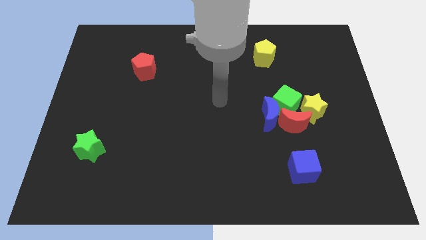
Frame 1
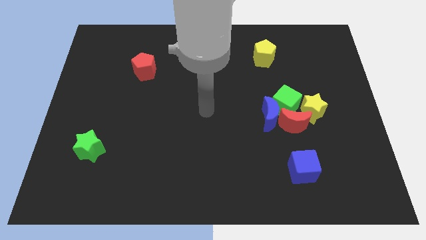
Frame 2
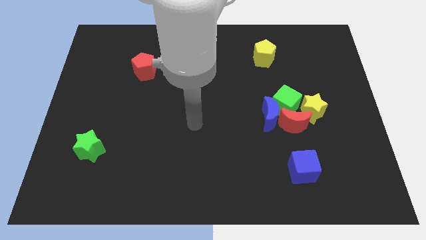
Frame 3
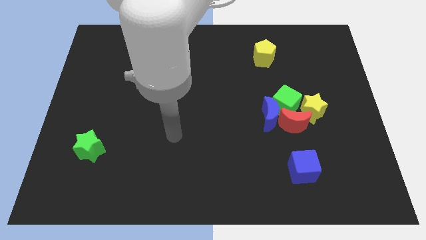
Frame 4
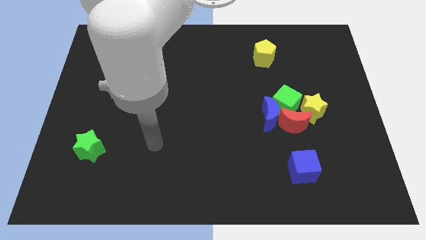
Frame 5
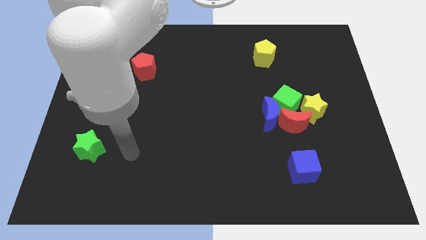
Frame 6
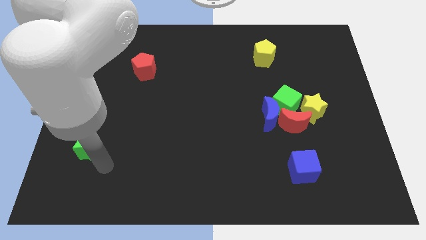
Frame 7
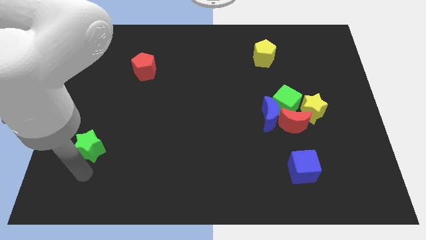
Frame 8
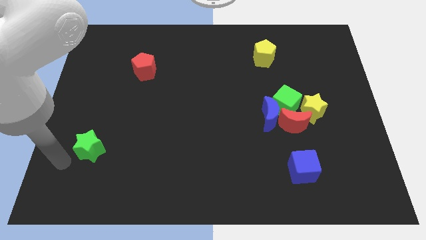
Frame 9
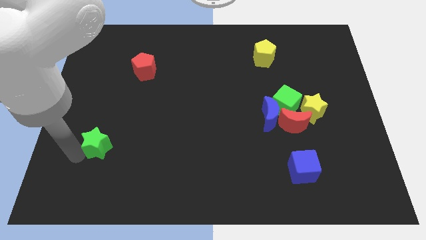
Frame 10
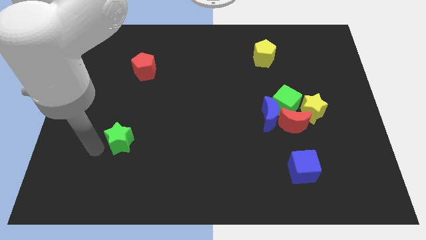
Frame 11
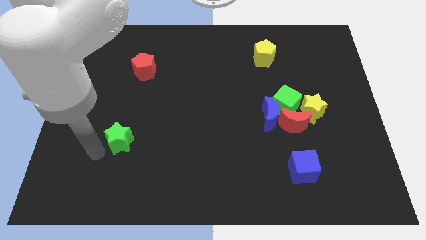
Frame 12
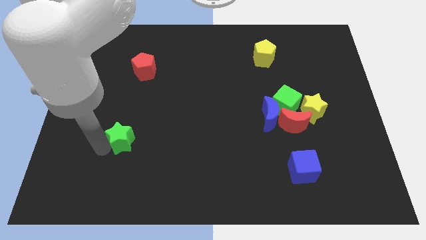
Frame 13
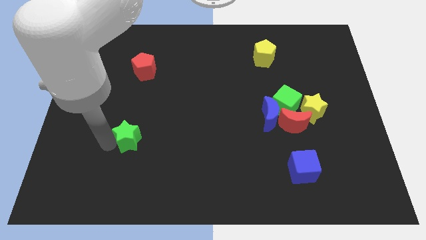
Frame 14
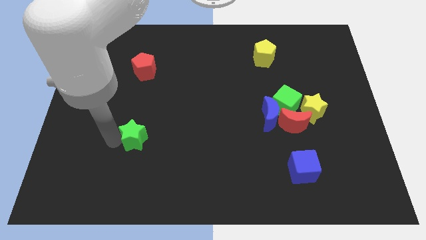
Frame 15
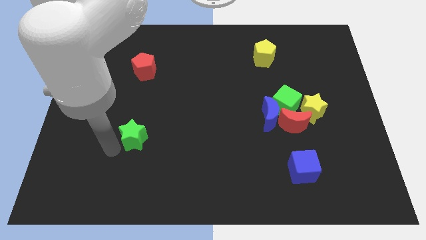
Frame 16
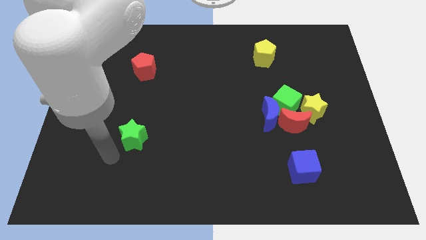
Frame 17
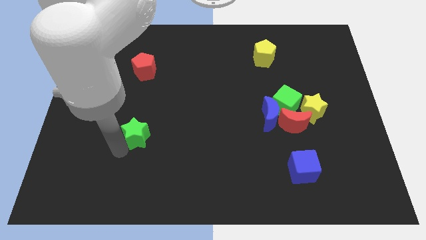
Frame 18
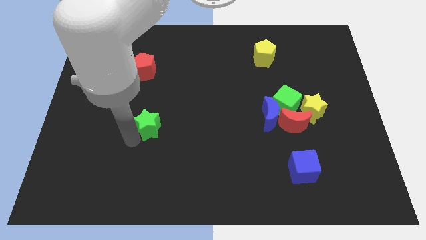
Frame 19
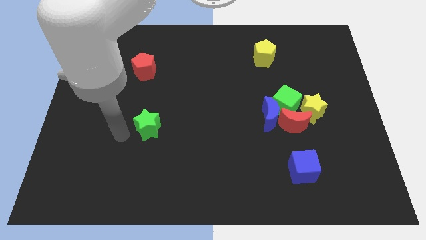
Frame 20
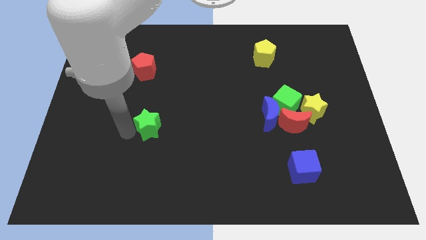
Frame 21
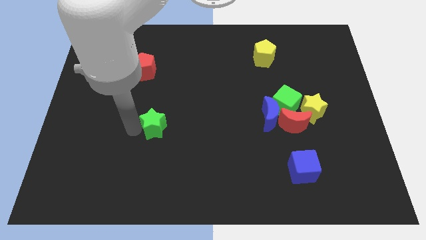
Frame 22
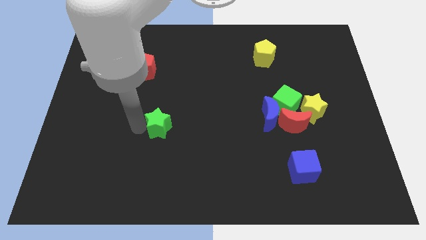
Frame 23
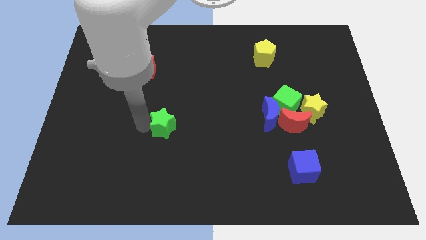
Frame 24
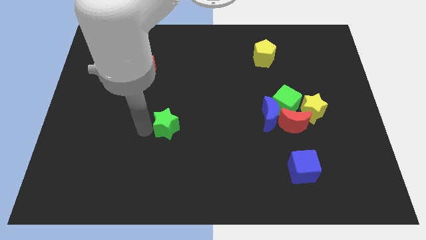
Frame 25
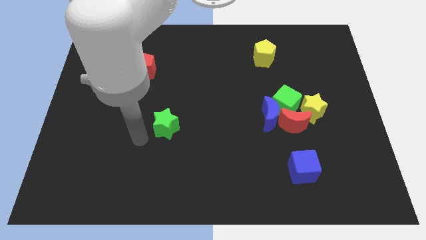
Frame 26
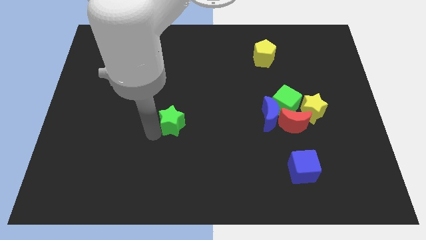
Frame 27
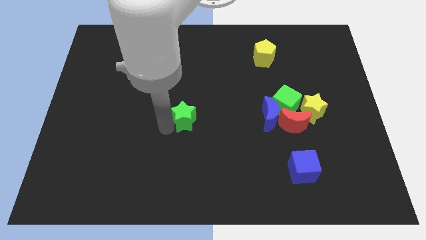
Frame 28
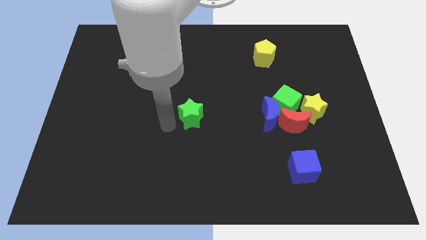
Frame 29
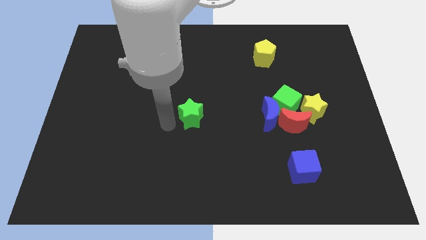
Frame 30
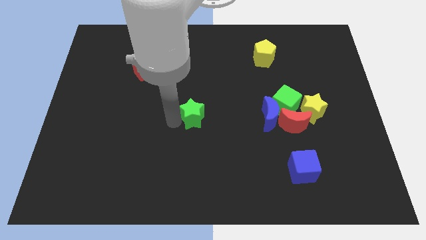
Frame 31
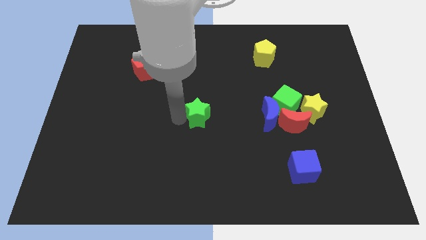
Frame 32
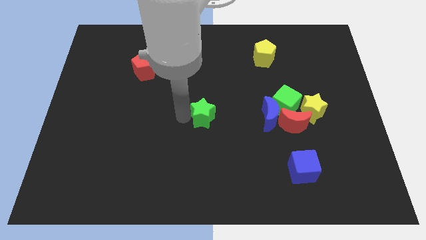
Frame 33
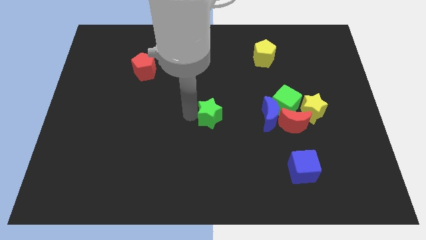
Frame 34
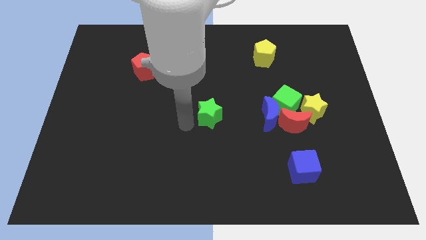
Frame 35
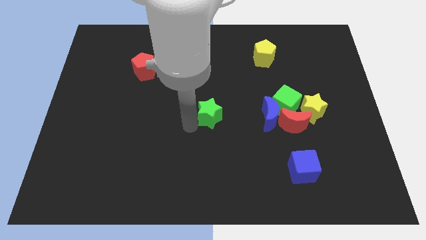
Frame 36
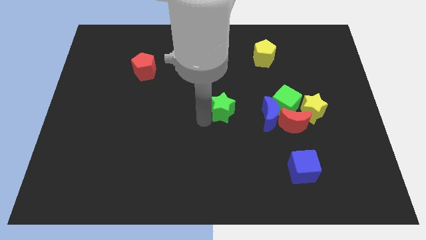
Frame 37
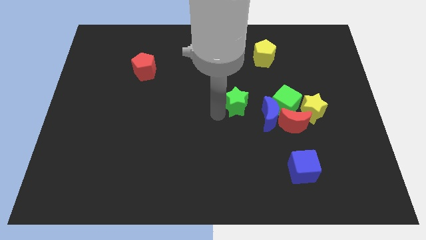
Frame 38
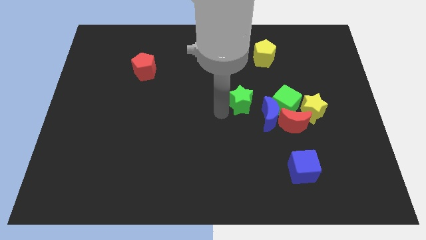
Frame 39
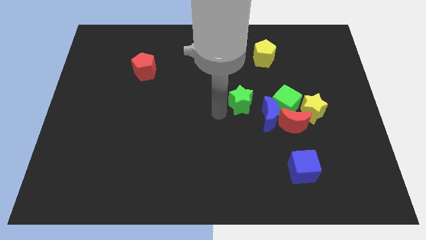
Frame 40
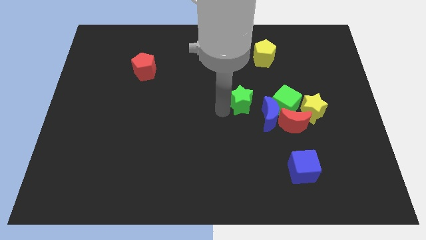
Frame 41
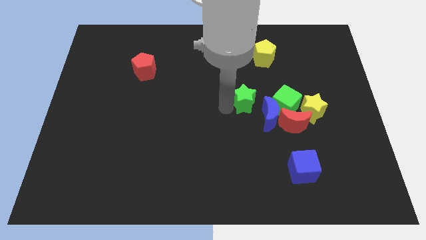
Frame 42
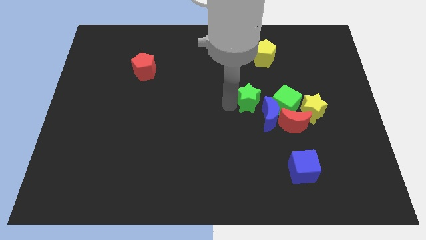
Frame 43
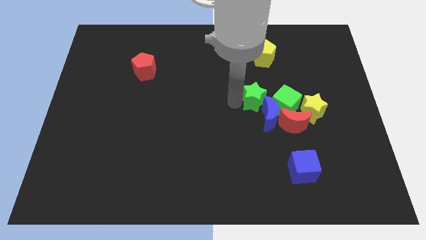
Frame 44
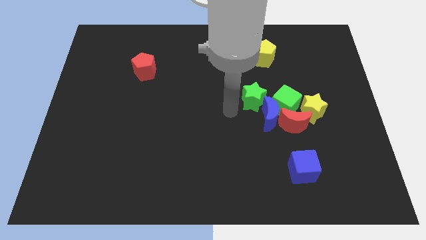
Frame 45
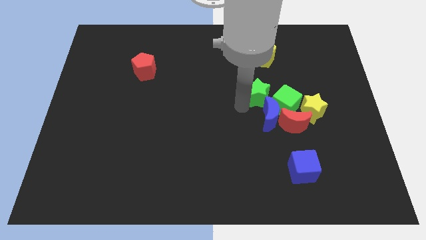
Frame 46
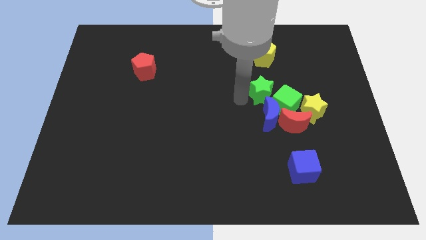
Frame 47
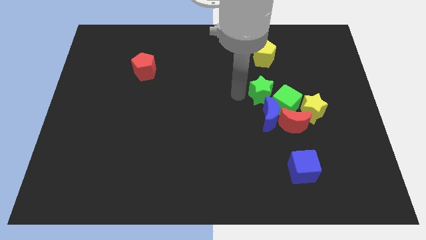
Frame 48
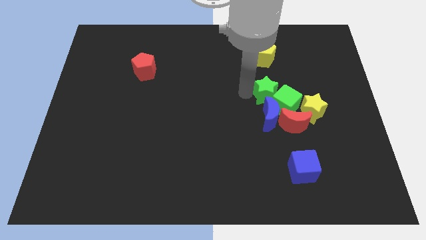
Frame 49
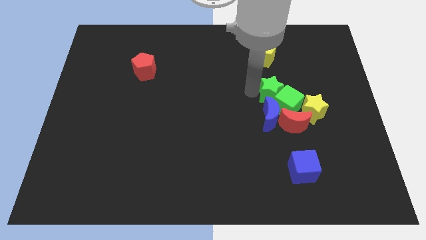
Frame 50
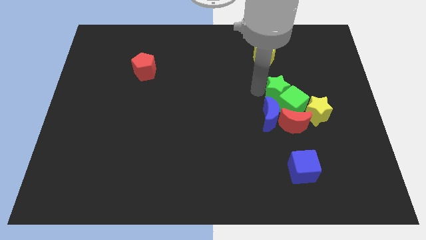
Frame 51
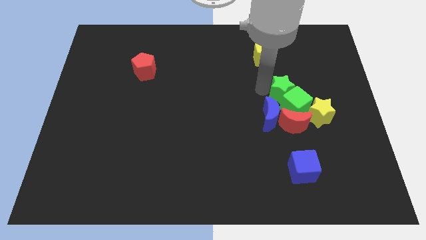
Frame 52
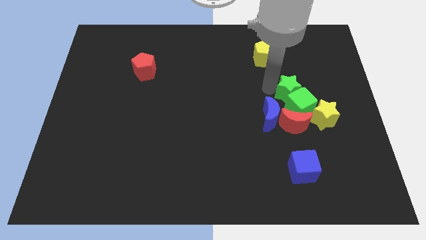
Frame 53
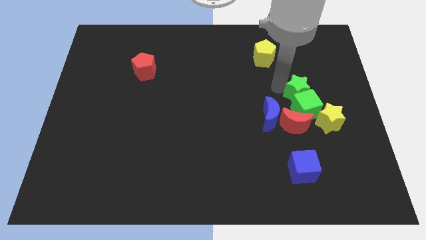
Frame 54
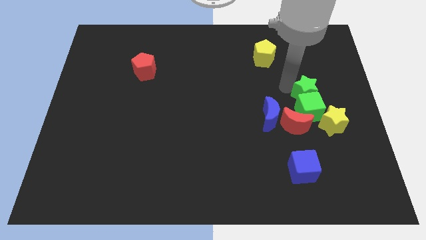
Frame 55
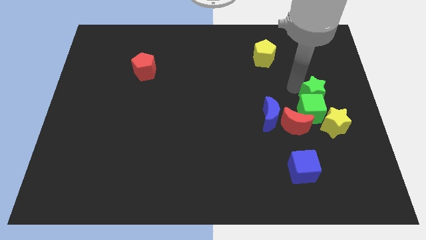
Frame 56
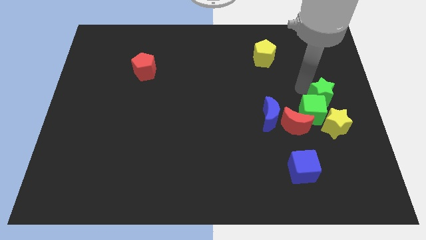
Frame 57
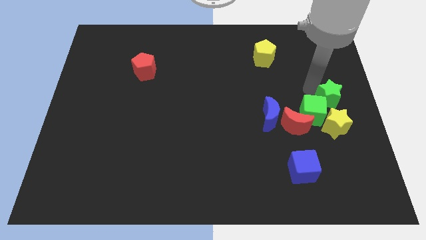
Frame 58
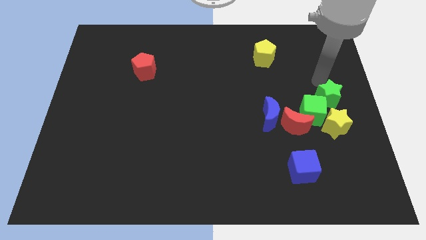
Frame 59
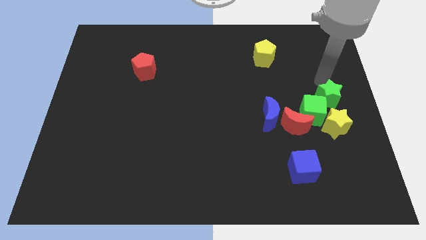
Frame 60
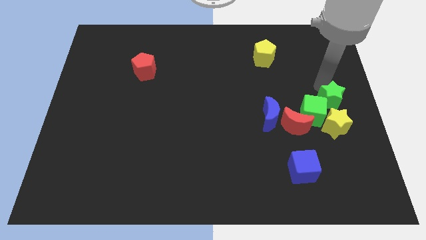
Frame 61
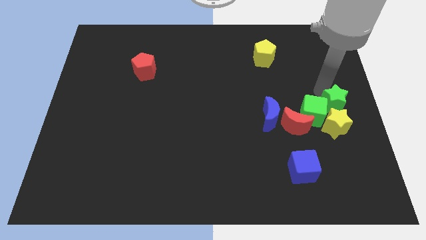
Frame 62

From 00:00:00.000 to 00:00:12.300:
move the green star towards the yellow star

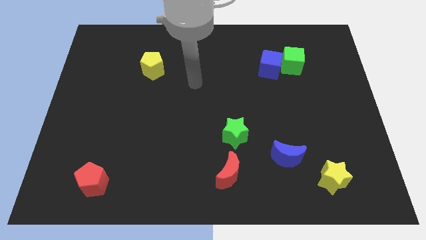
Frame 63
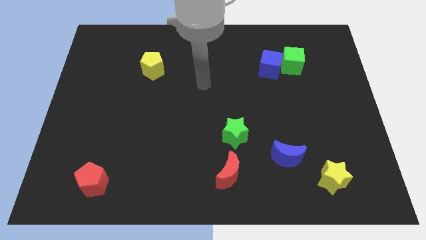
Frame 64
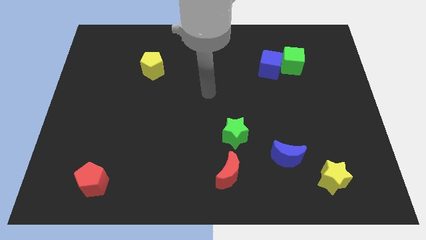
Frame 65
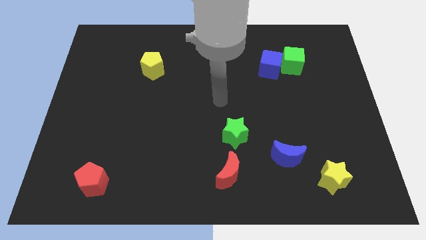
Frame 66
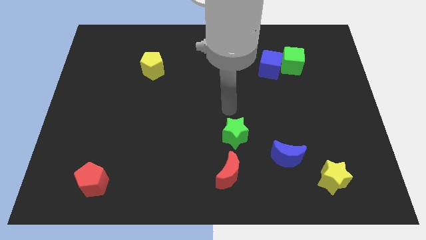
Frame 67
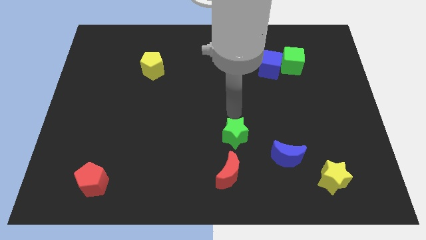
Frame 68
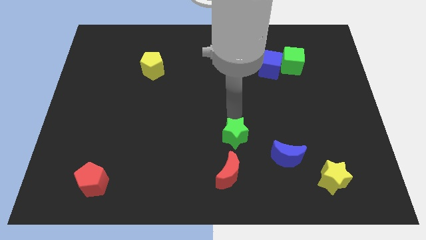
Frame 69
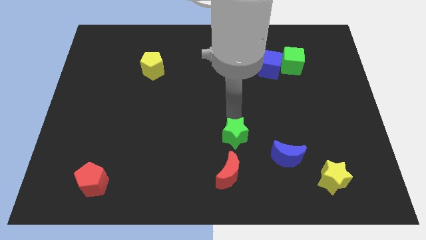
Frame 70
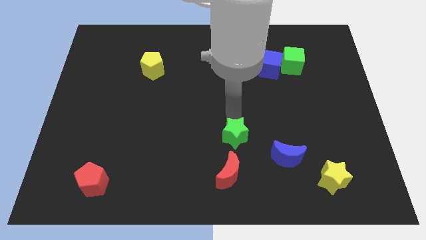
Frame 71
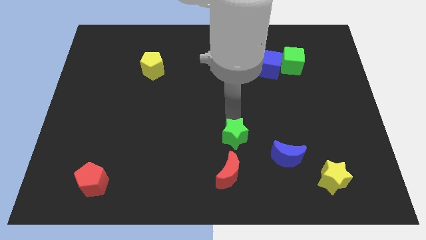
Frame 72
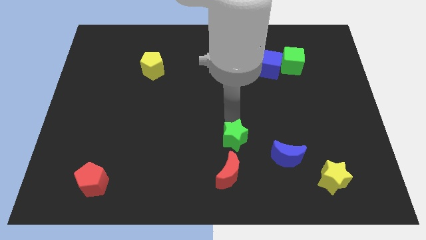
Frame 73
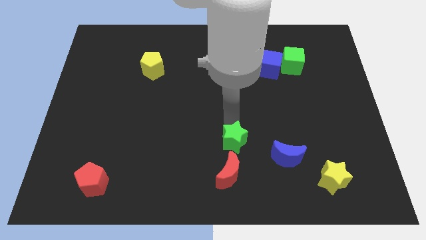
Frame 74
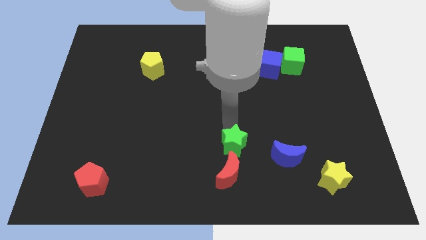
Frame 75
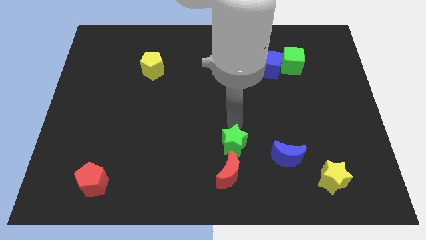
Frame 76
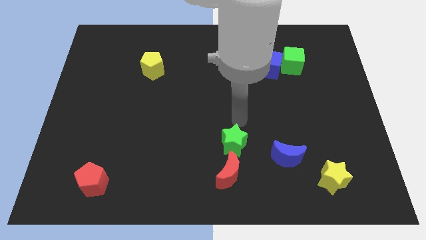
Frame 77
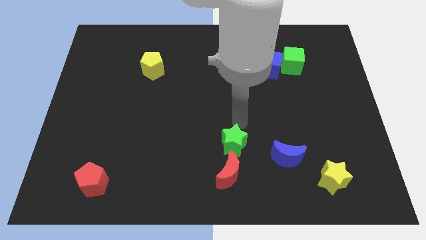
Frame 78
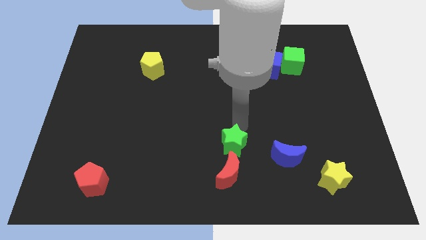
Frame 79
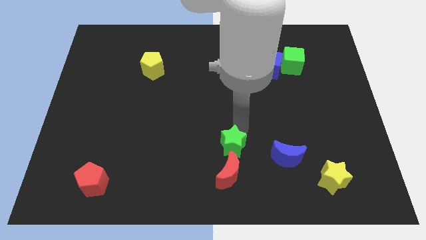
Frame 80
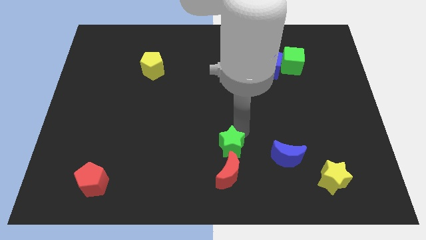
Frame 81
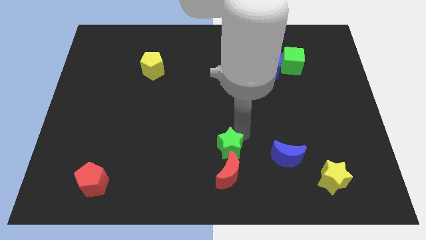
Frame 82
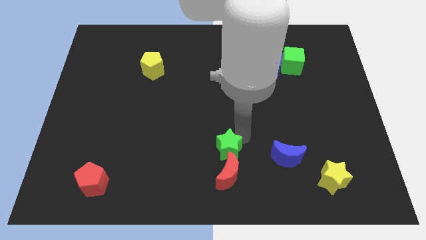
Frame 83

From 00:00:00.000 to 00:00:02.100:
move the green star towards the red moon
